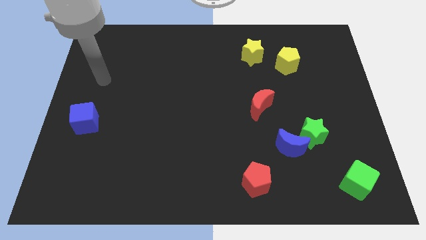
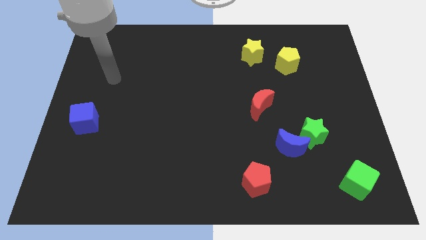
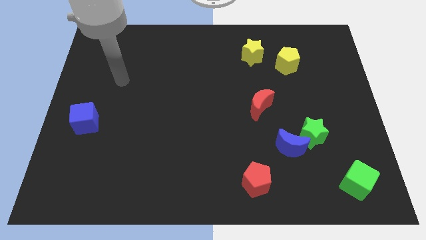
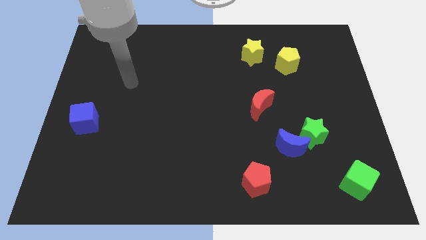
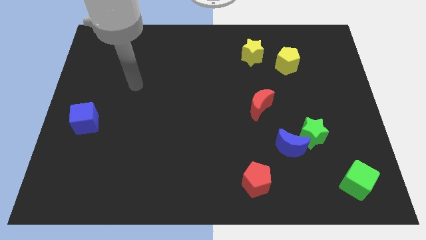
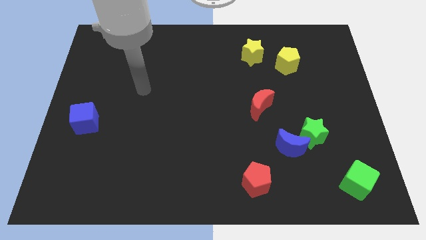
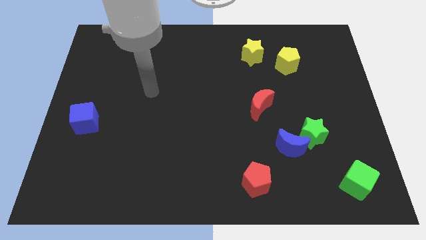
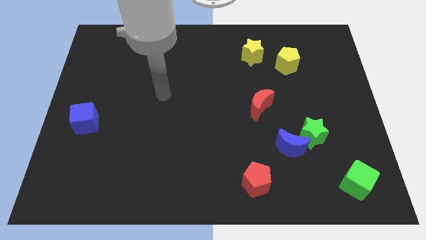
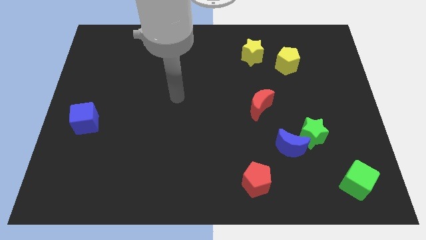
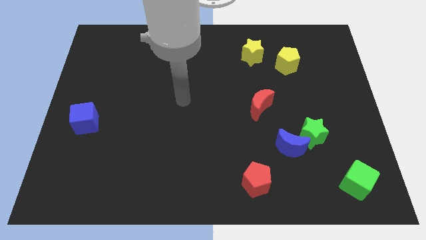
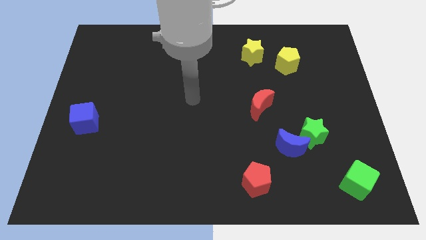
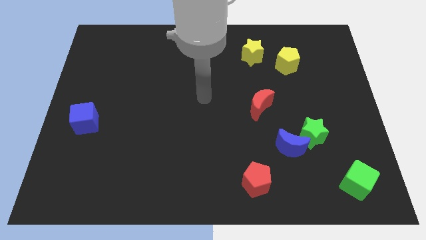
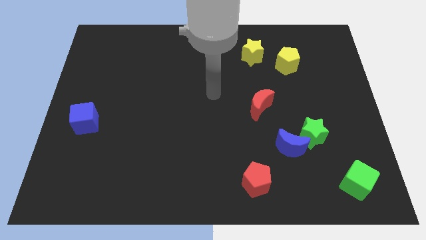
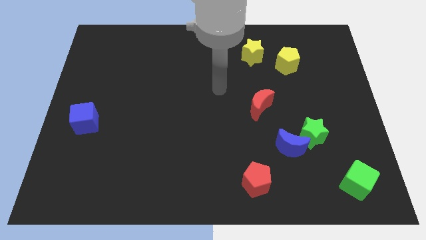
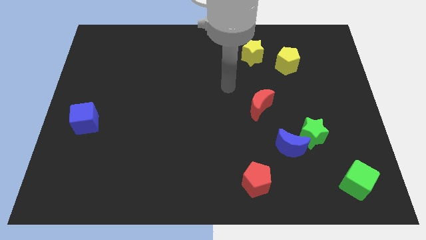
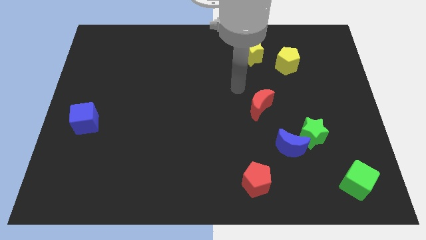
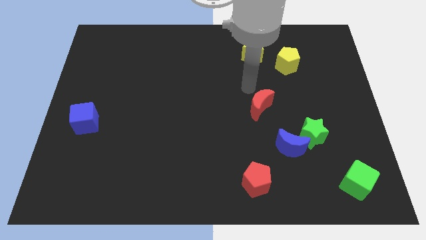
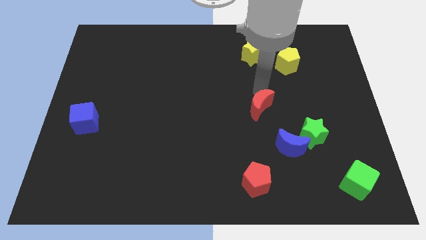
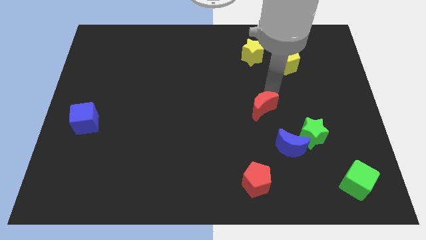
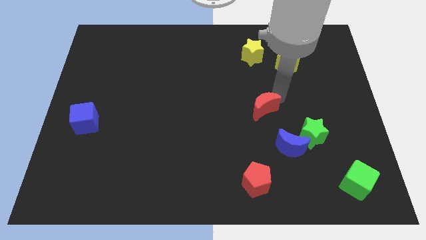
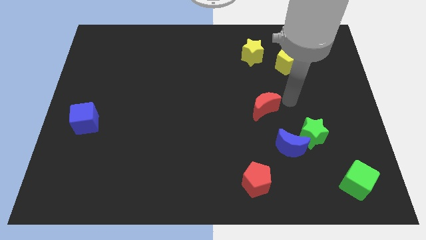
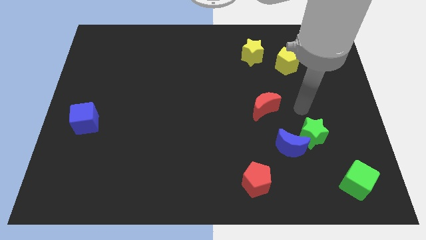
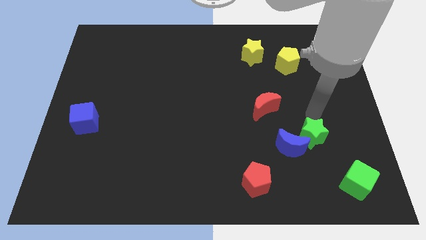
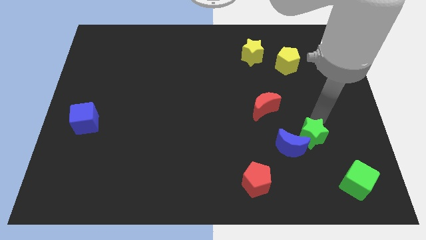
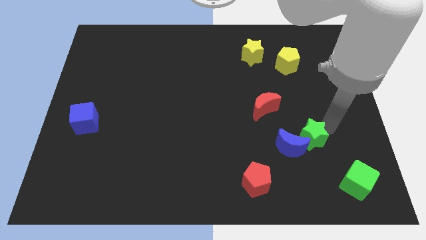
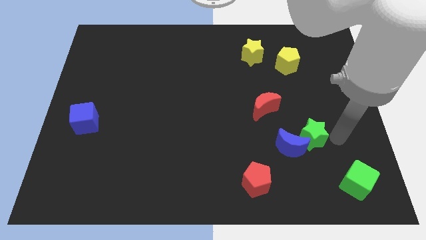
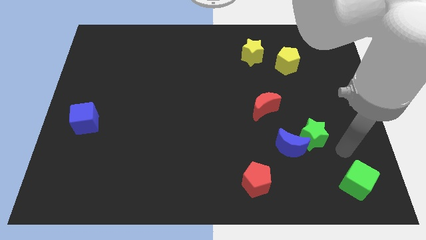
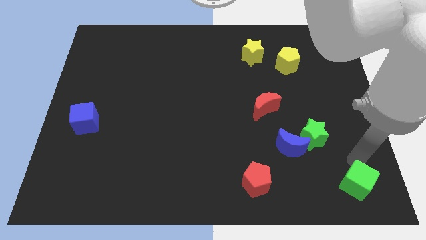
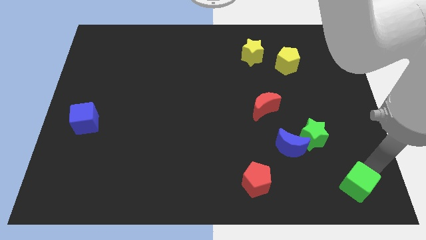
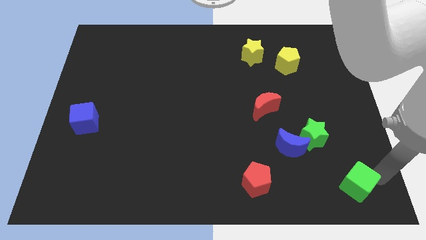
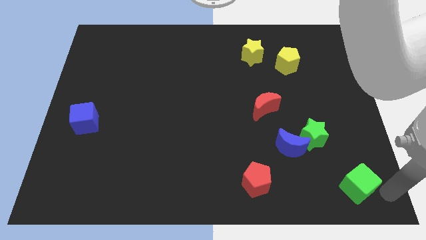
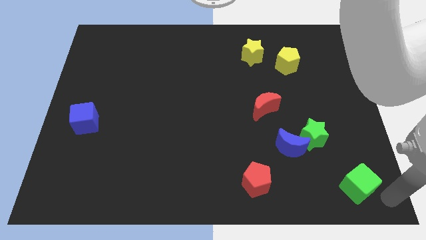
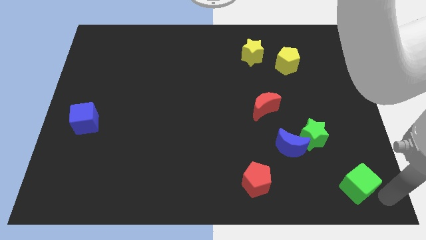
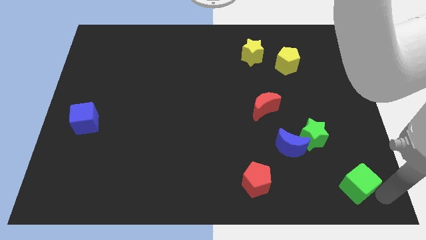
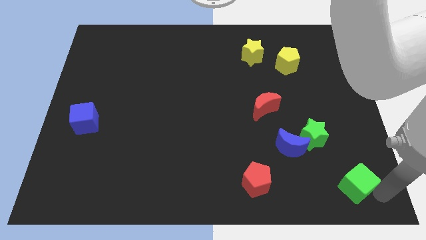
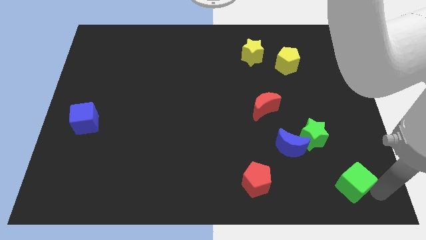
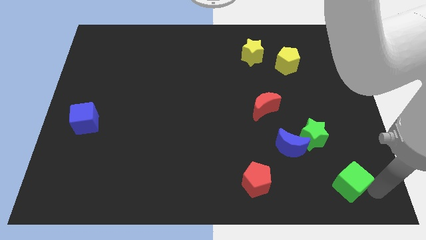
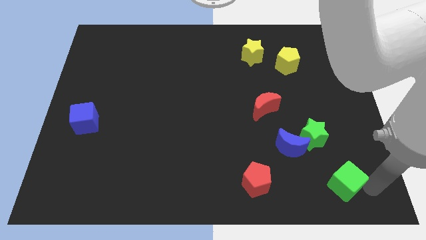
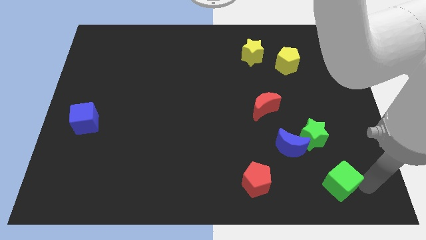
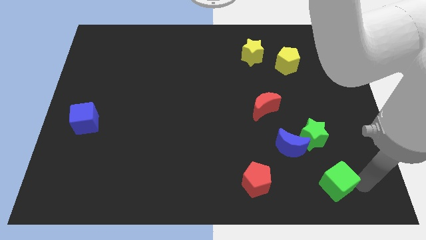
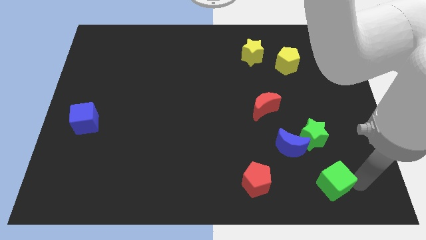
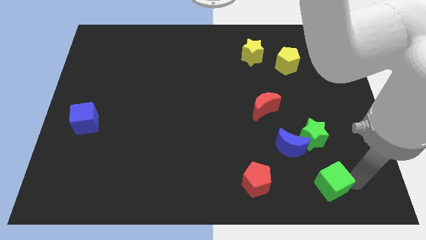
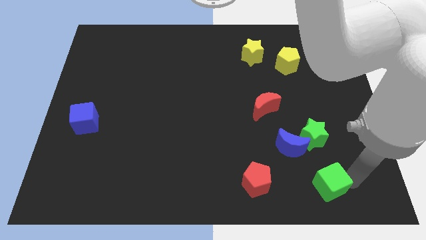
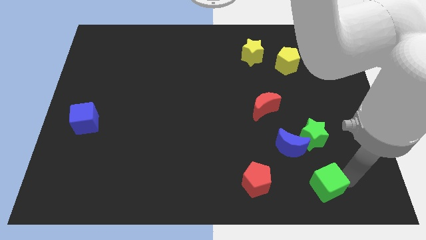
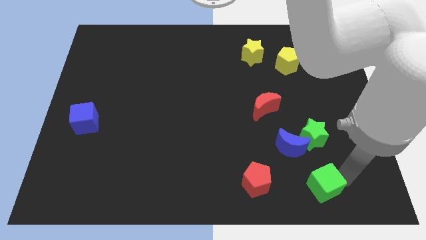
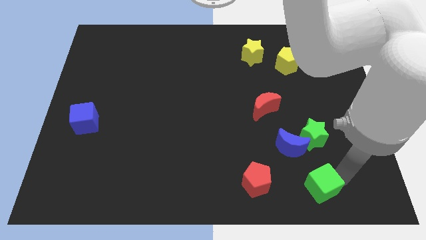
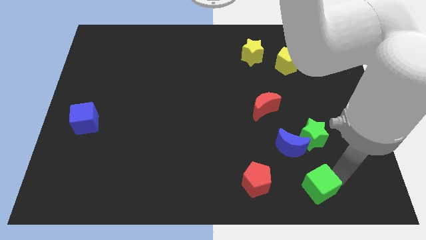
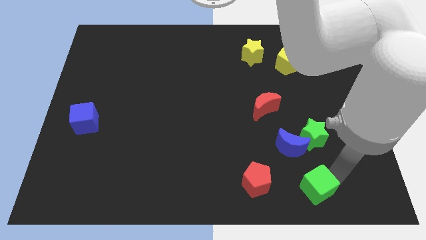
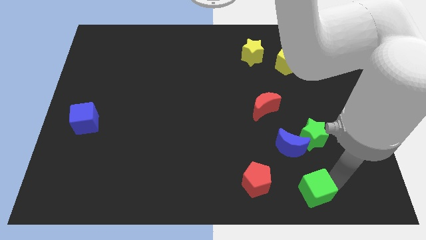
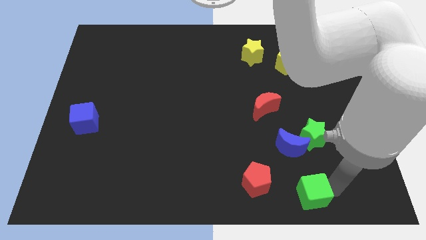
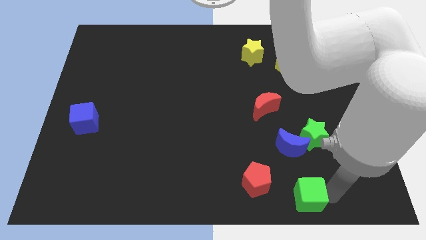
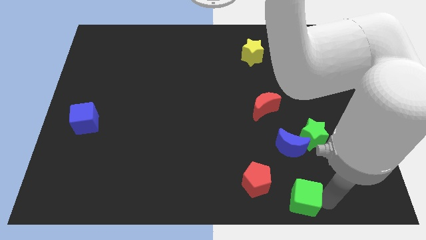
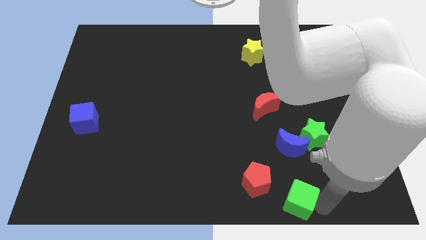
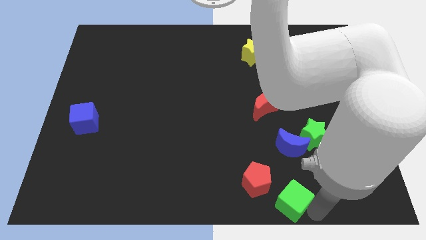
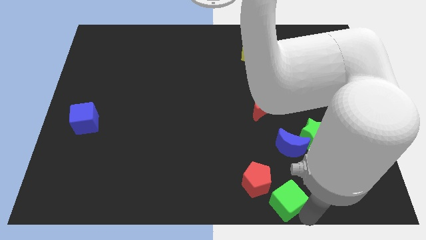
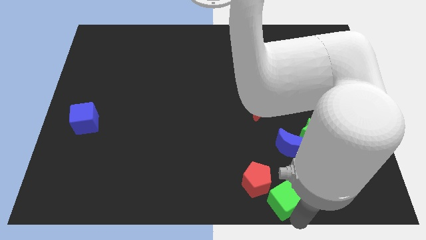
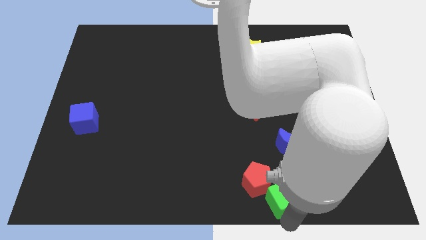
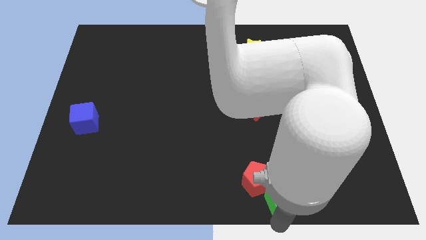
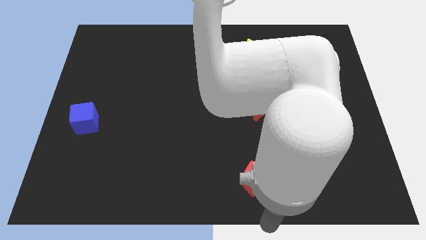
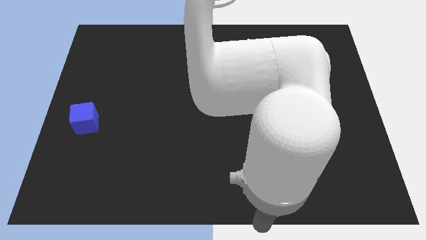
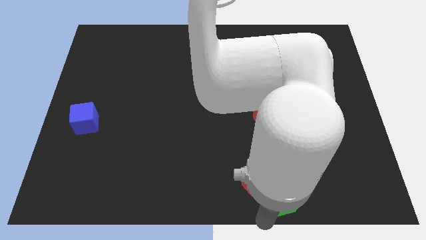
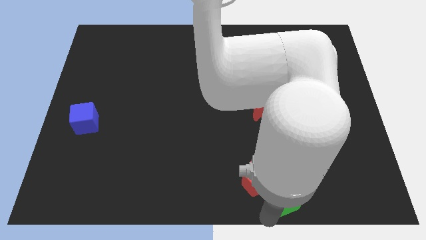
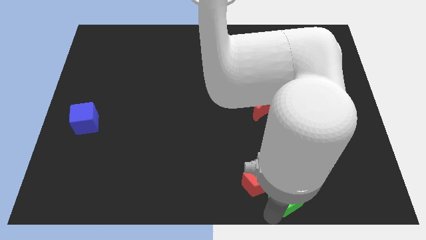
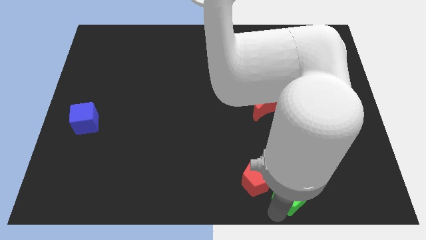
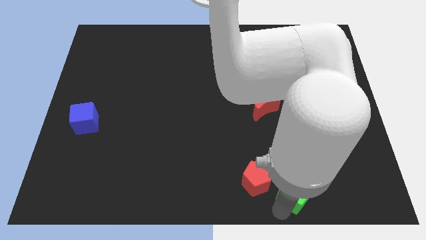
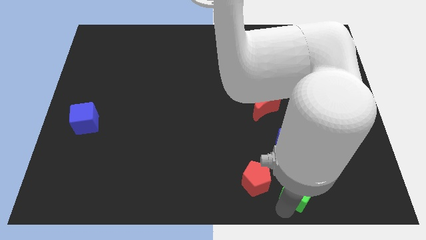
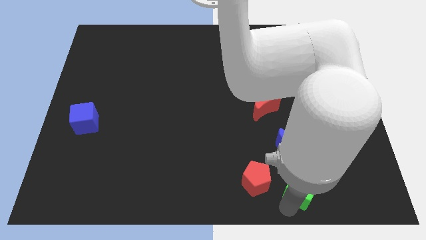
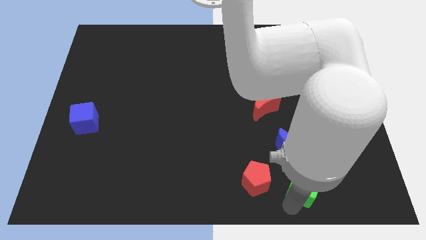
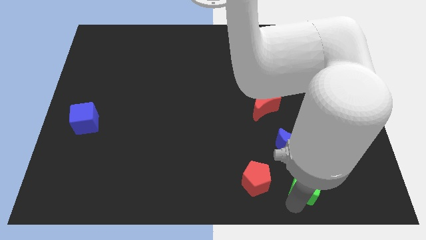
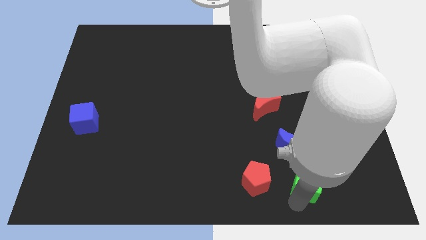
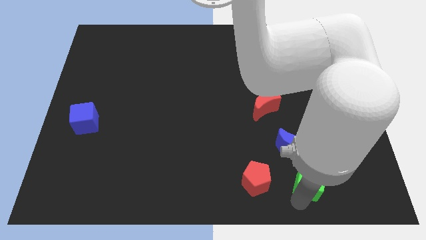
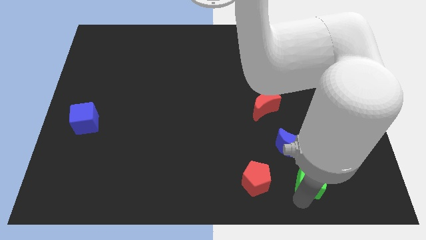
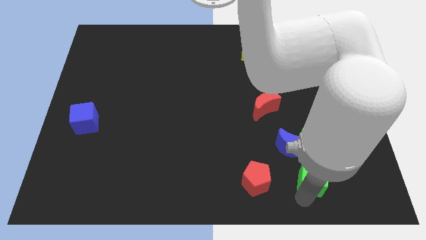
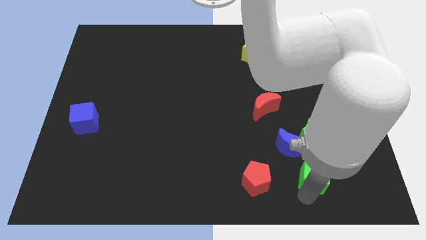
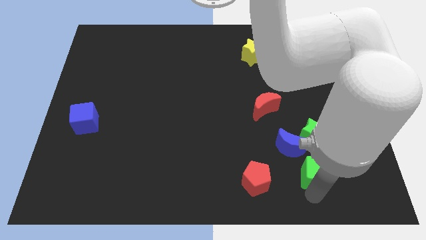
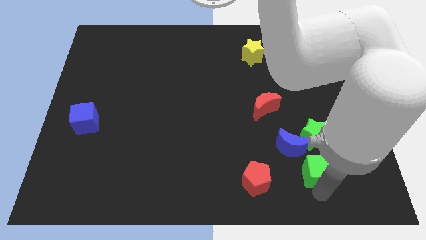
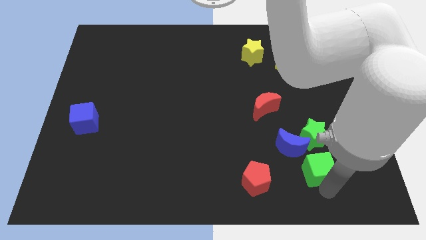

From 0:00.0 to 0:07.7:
slide the green cube up and left diagonally a little
